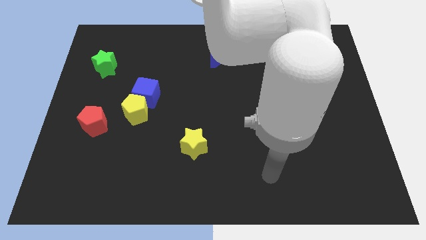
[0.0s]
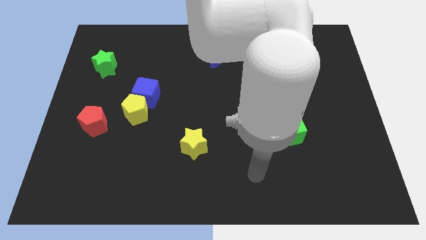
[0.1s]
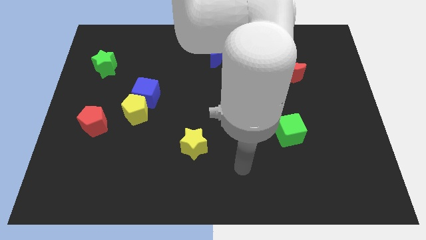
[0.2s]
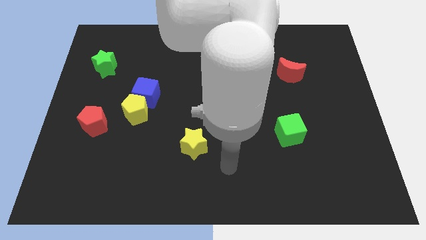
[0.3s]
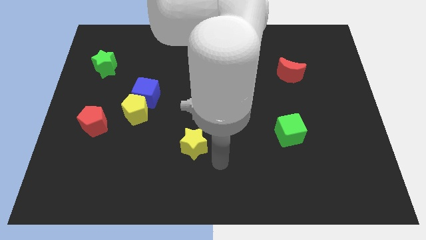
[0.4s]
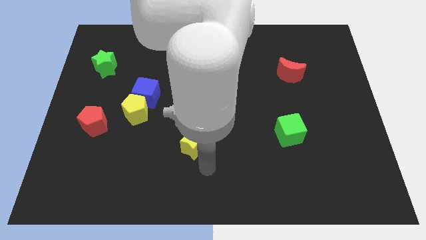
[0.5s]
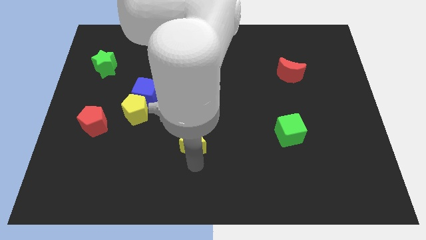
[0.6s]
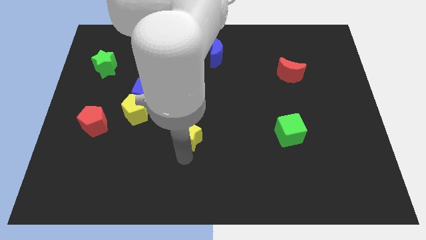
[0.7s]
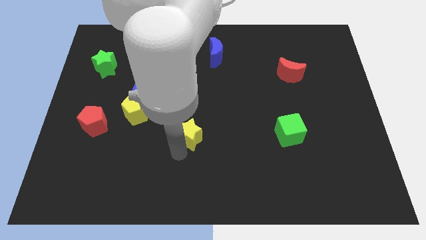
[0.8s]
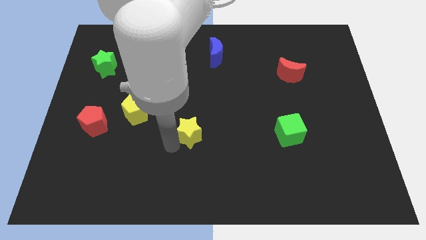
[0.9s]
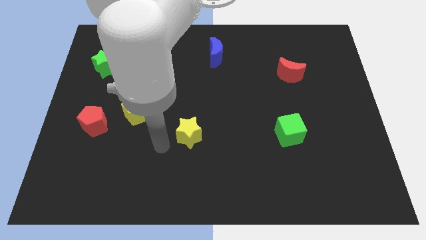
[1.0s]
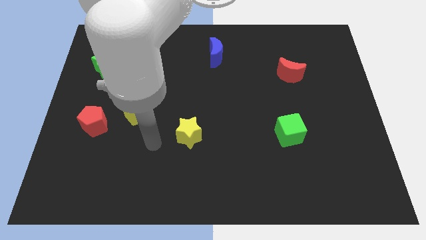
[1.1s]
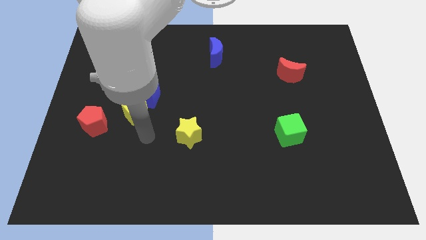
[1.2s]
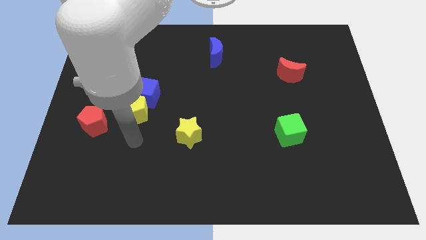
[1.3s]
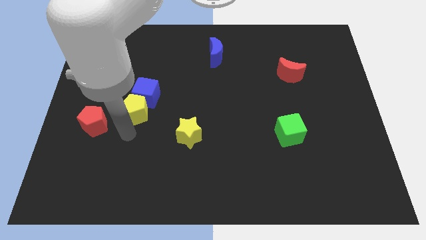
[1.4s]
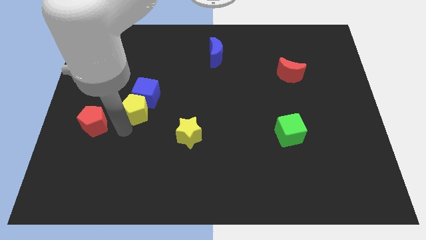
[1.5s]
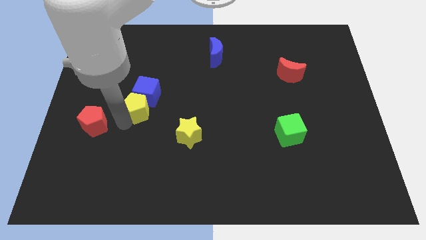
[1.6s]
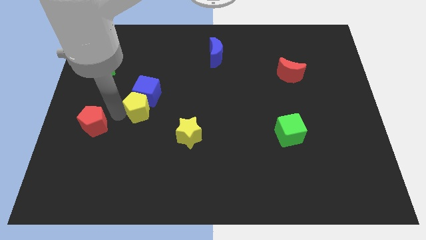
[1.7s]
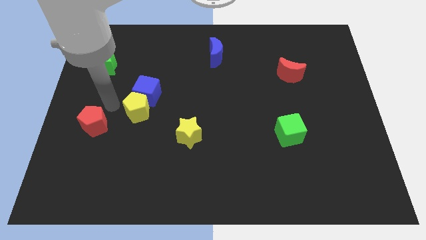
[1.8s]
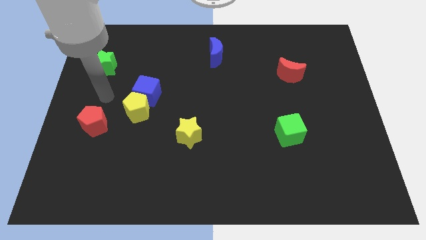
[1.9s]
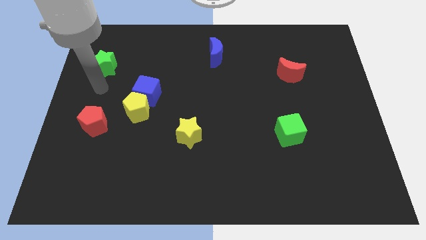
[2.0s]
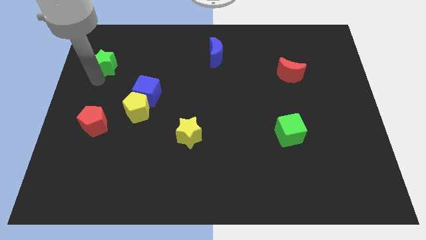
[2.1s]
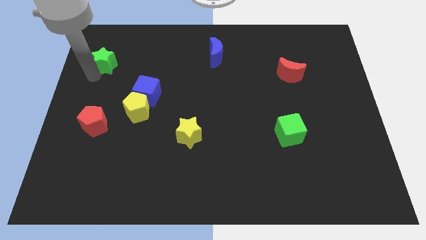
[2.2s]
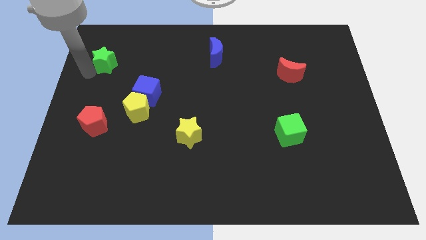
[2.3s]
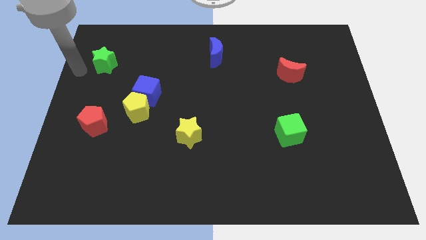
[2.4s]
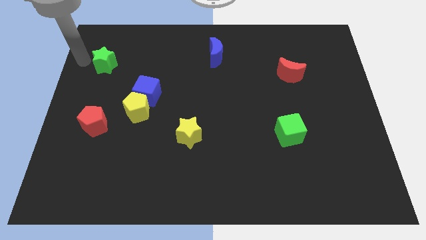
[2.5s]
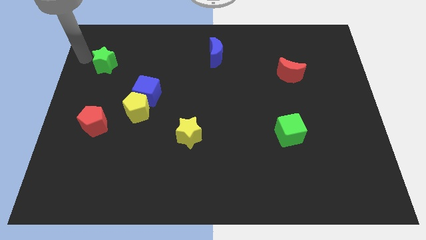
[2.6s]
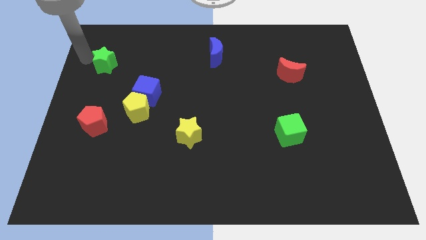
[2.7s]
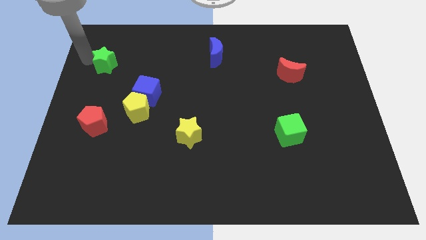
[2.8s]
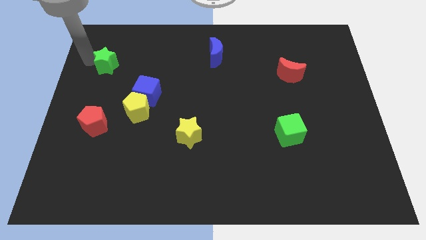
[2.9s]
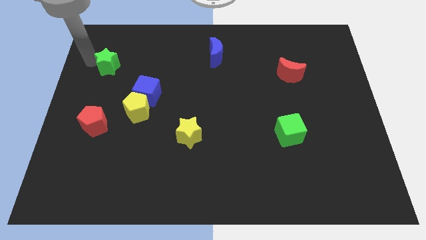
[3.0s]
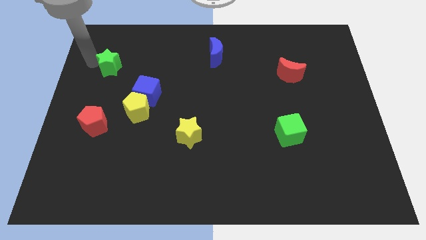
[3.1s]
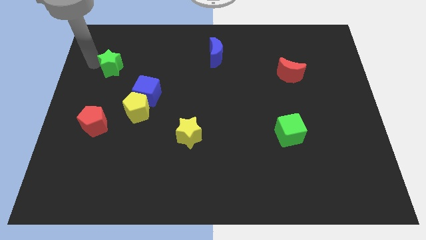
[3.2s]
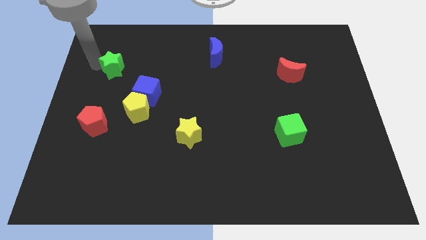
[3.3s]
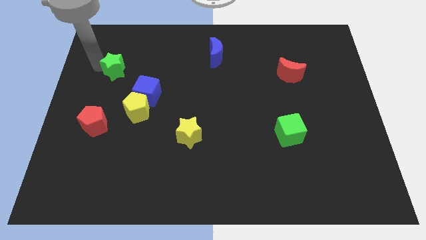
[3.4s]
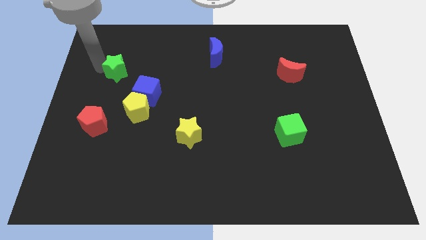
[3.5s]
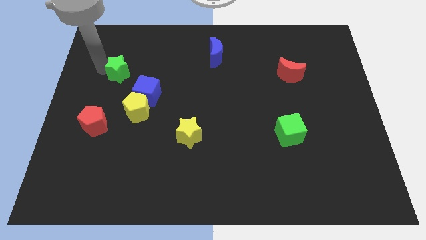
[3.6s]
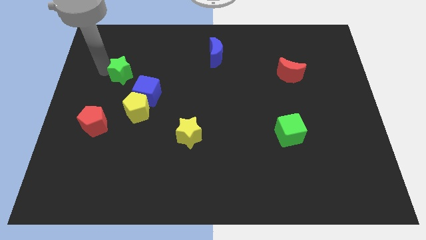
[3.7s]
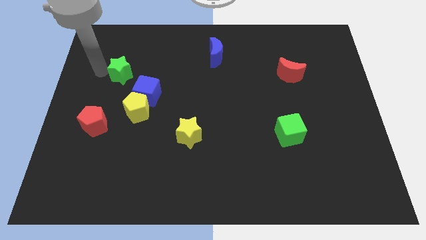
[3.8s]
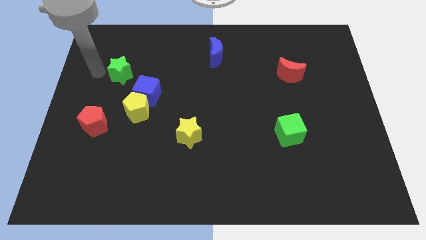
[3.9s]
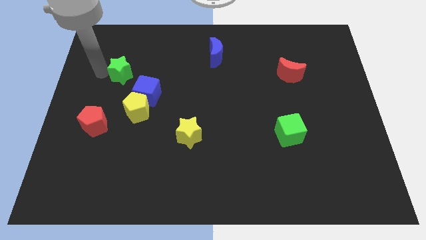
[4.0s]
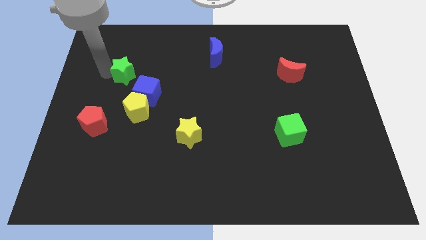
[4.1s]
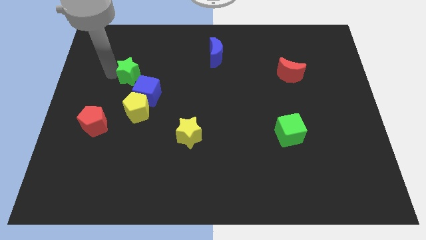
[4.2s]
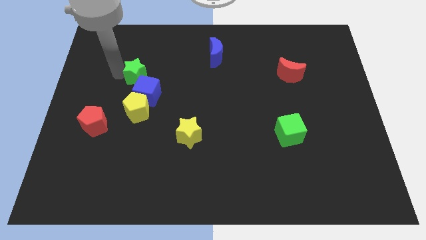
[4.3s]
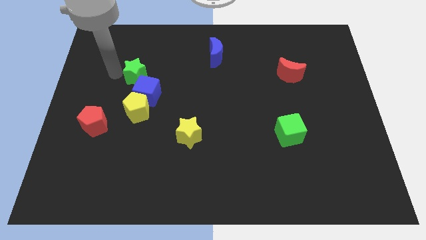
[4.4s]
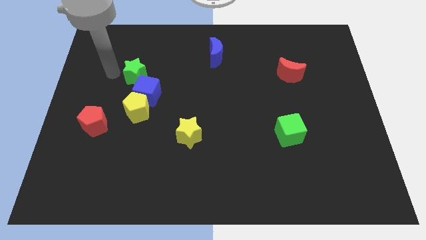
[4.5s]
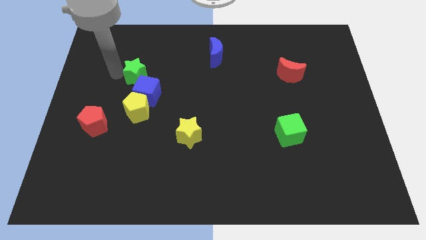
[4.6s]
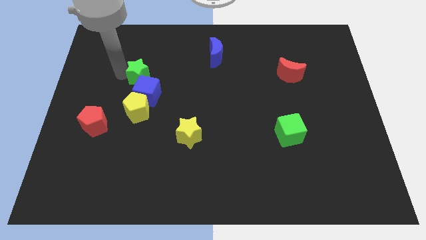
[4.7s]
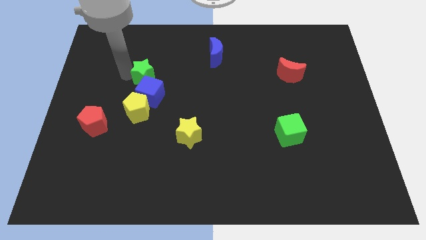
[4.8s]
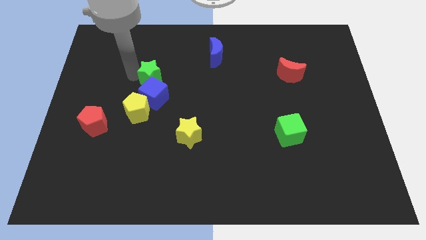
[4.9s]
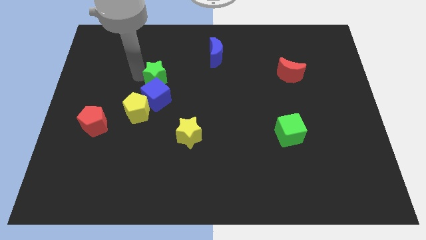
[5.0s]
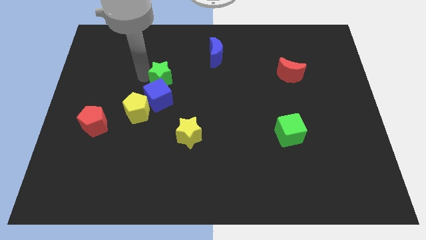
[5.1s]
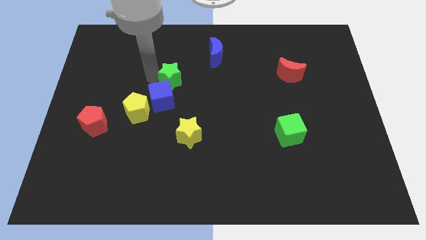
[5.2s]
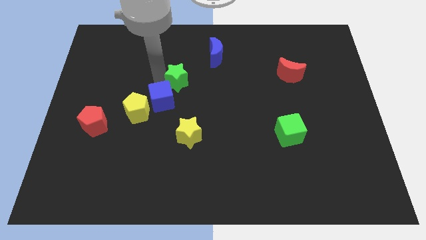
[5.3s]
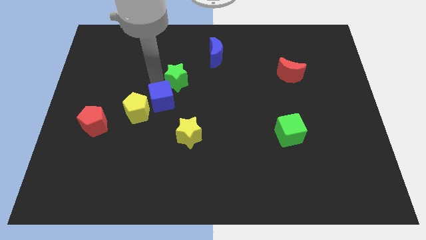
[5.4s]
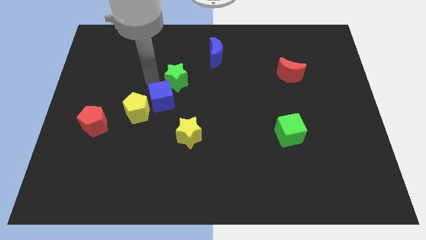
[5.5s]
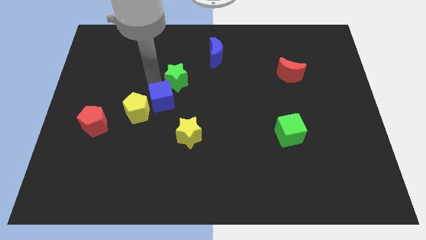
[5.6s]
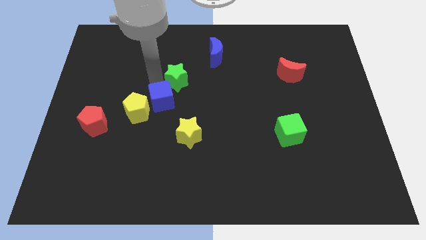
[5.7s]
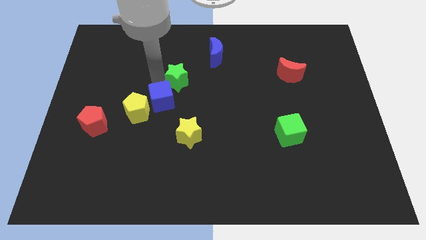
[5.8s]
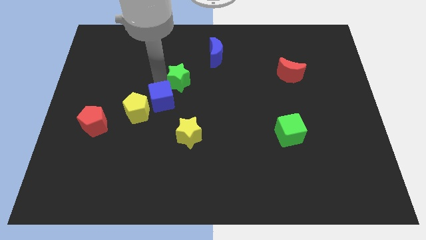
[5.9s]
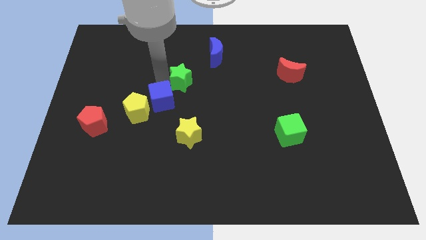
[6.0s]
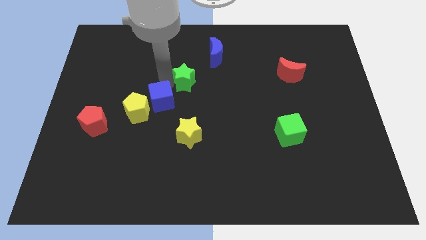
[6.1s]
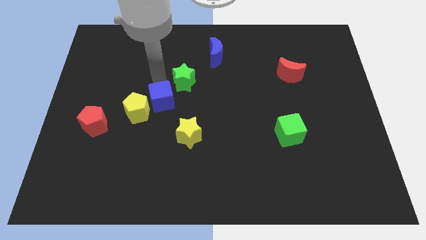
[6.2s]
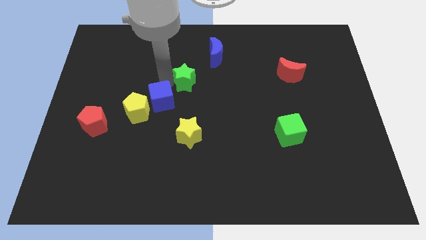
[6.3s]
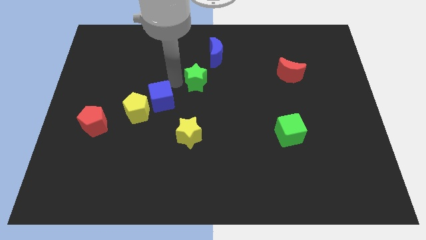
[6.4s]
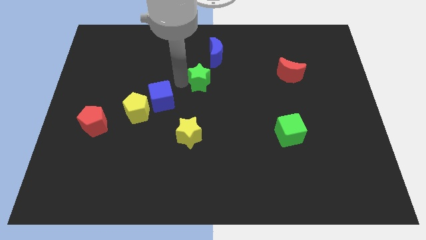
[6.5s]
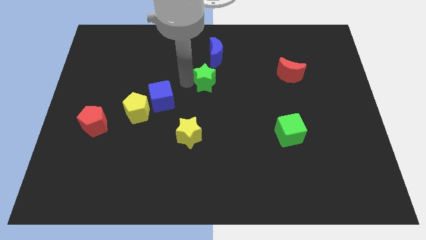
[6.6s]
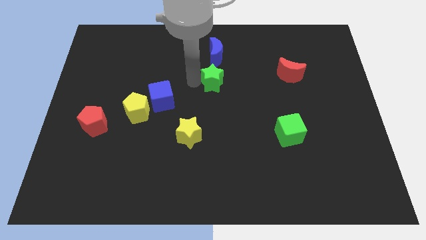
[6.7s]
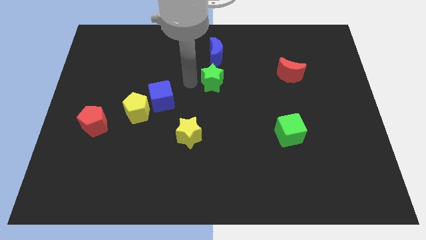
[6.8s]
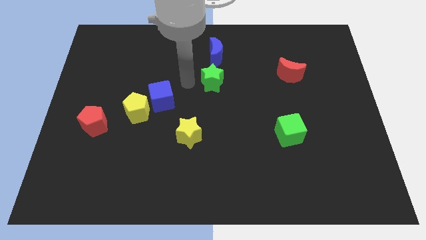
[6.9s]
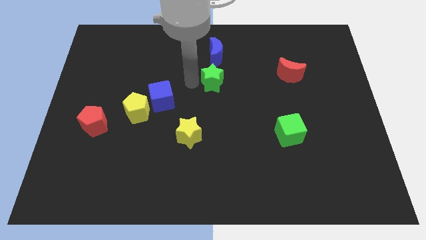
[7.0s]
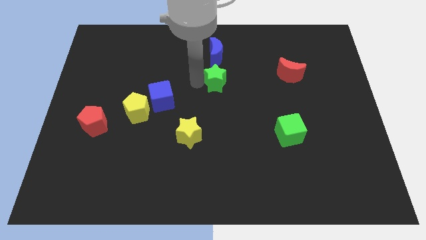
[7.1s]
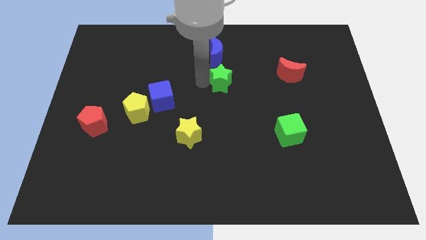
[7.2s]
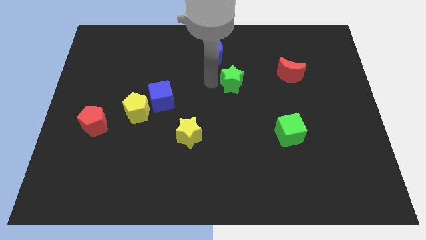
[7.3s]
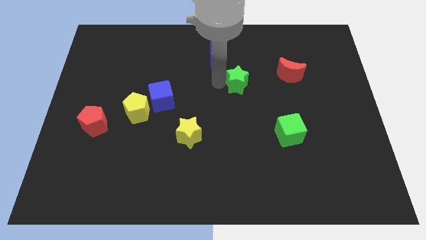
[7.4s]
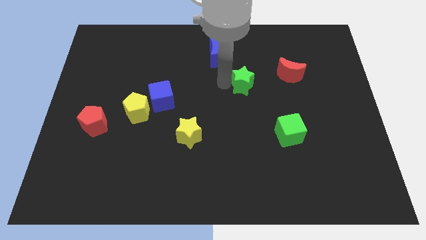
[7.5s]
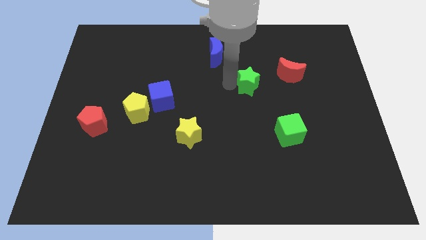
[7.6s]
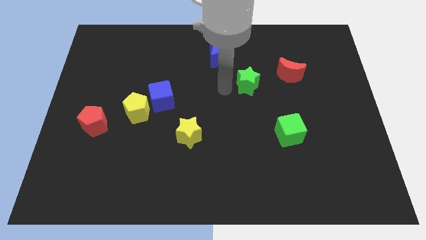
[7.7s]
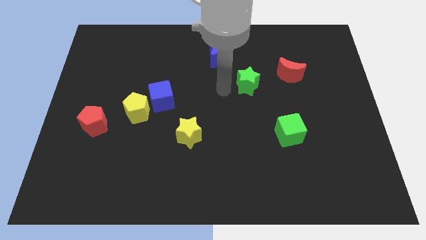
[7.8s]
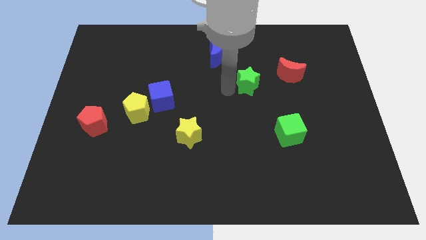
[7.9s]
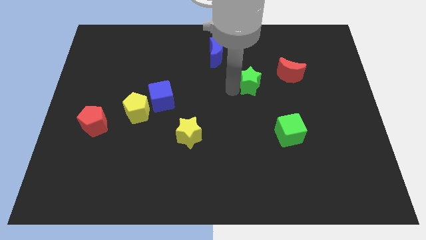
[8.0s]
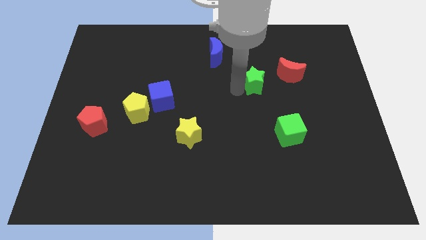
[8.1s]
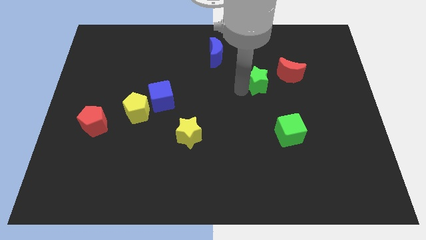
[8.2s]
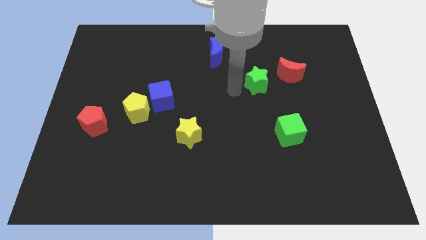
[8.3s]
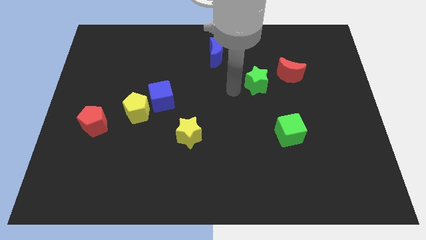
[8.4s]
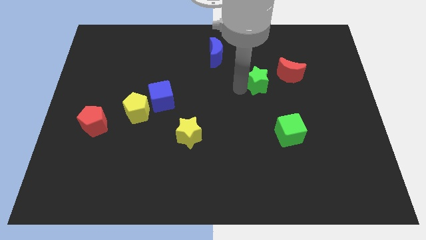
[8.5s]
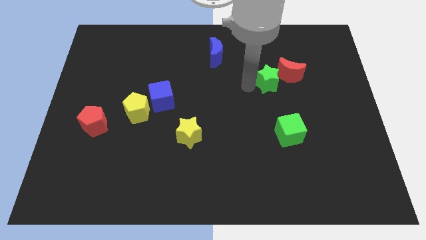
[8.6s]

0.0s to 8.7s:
move the green star close to the red moon
